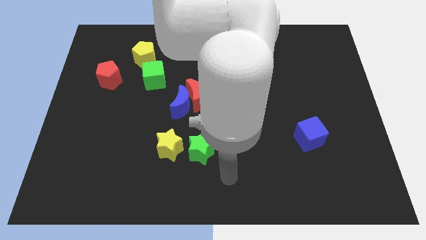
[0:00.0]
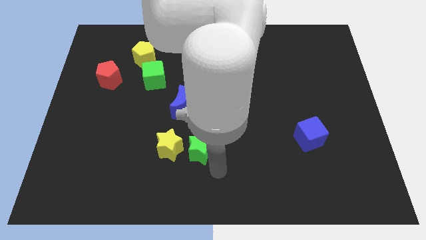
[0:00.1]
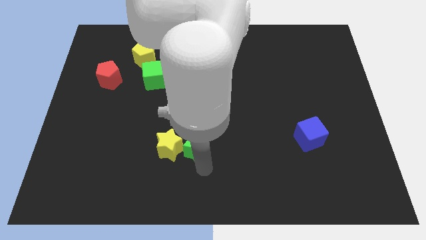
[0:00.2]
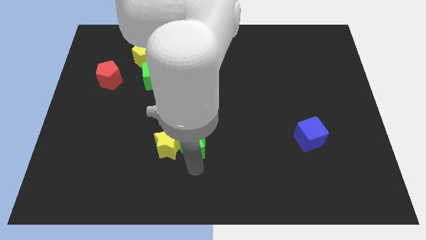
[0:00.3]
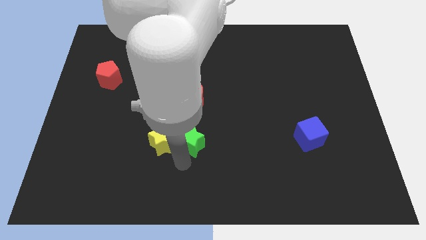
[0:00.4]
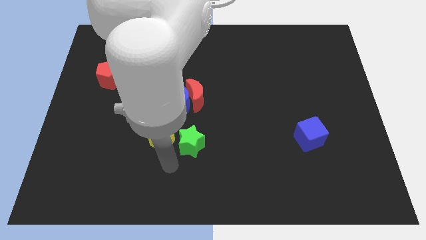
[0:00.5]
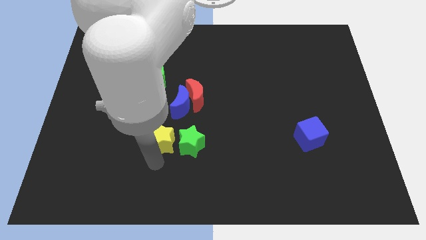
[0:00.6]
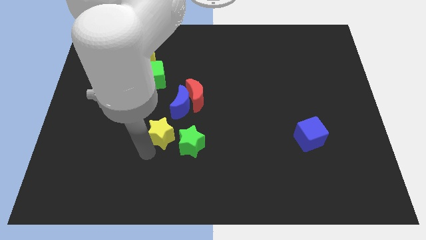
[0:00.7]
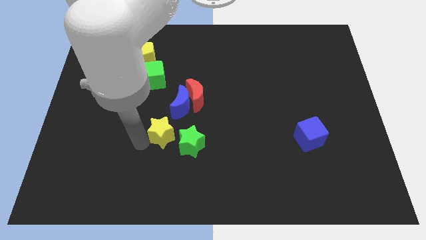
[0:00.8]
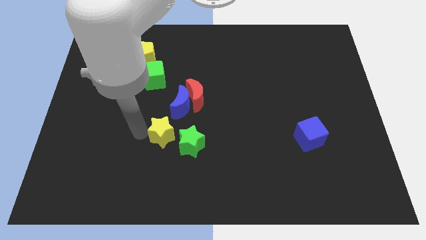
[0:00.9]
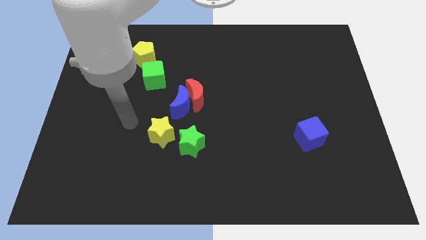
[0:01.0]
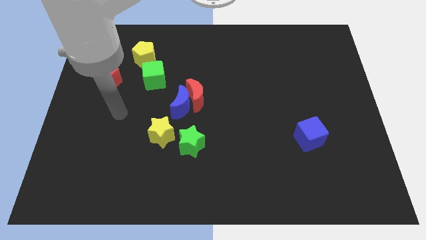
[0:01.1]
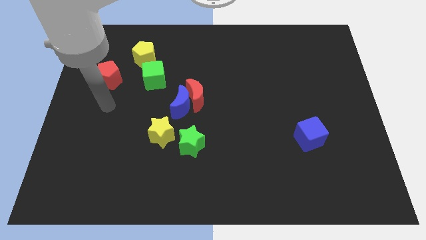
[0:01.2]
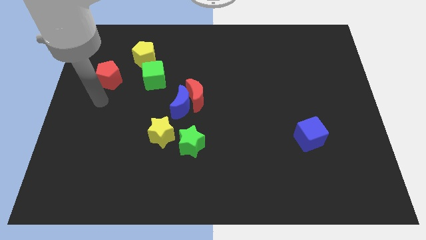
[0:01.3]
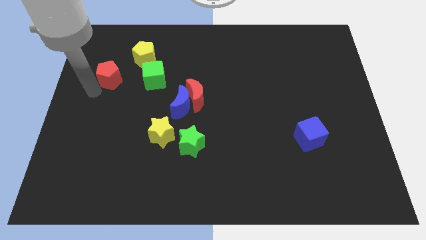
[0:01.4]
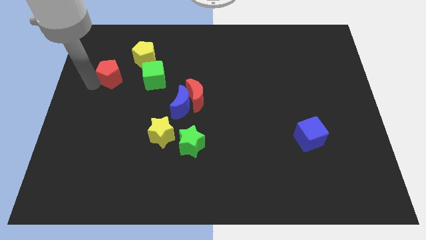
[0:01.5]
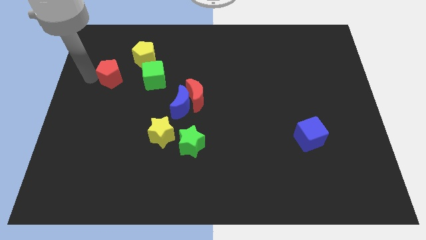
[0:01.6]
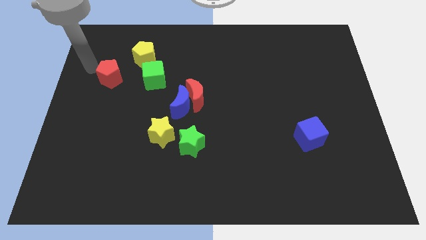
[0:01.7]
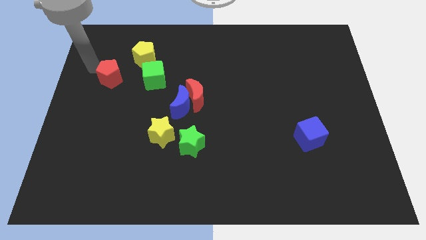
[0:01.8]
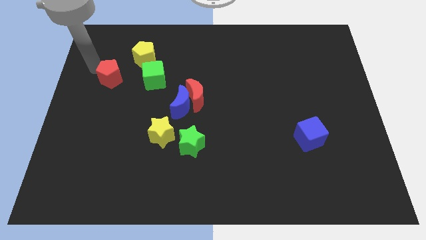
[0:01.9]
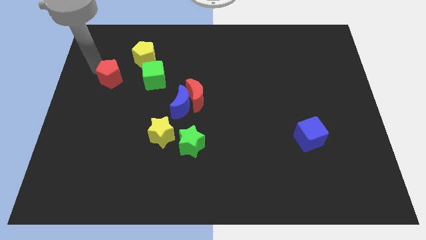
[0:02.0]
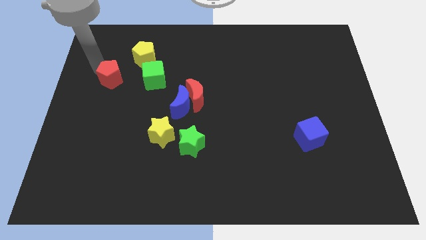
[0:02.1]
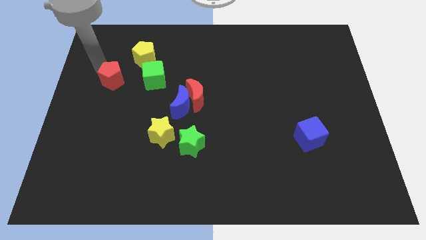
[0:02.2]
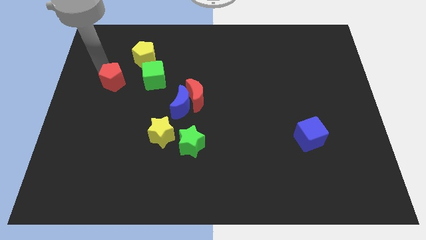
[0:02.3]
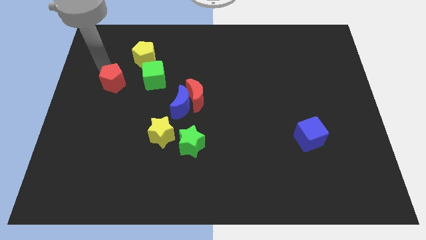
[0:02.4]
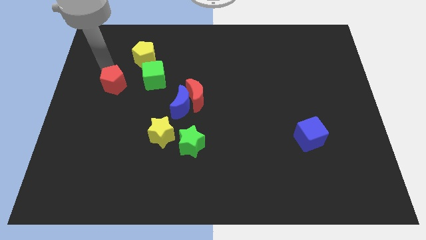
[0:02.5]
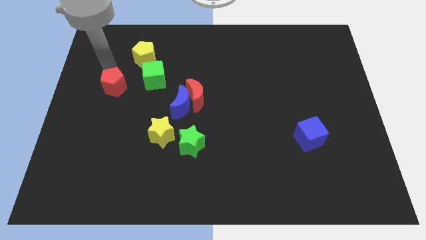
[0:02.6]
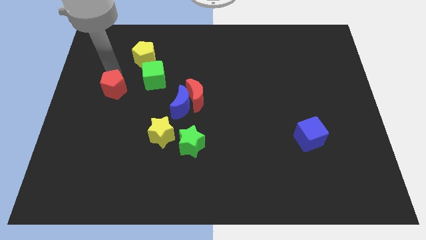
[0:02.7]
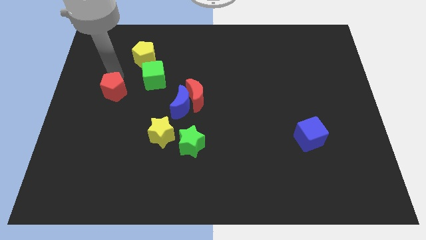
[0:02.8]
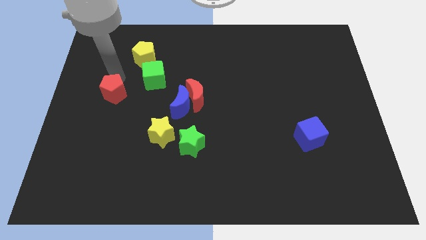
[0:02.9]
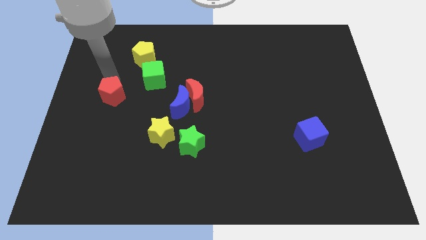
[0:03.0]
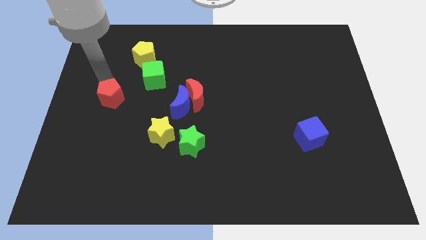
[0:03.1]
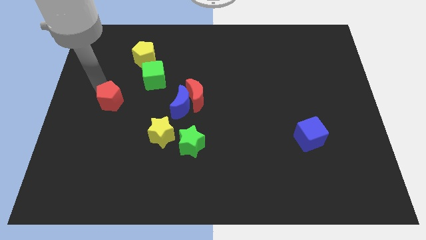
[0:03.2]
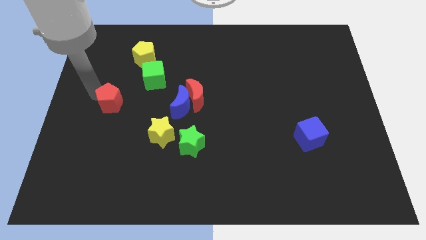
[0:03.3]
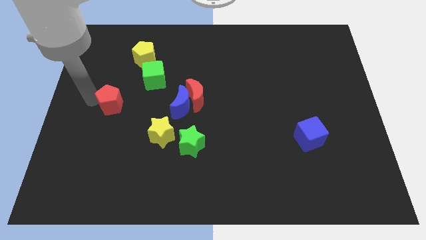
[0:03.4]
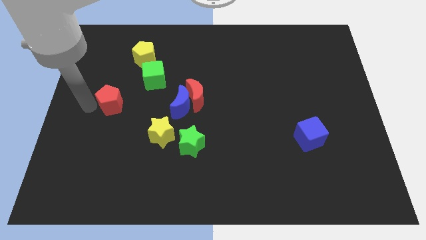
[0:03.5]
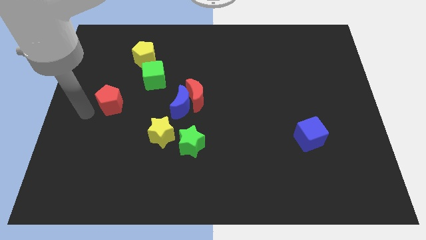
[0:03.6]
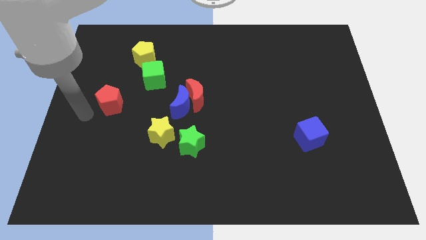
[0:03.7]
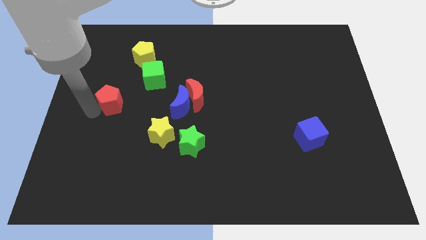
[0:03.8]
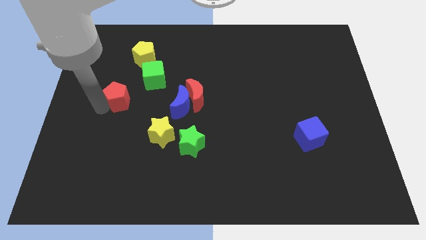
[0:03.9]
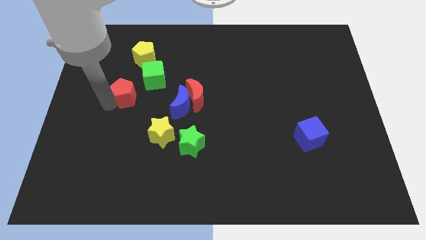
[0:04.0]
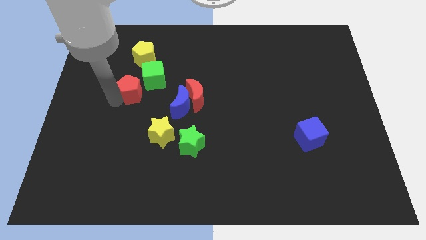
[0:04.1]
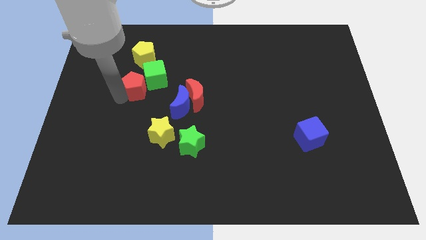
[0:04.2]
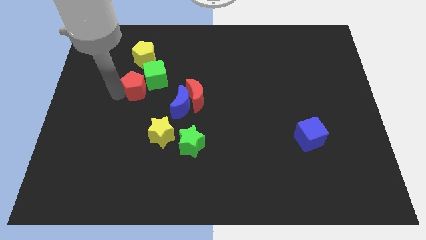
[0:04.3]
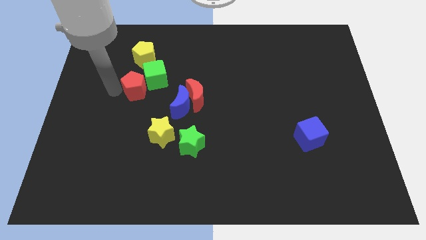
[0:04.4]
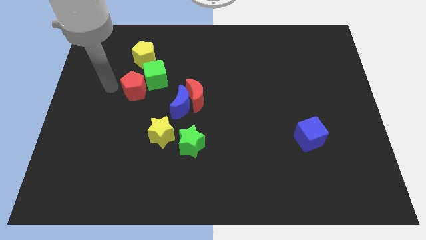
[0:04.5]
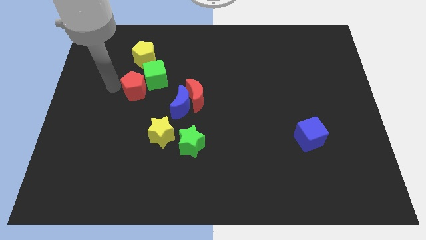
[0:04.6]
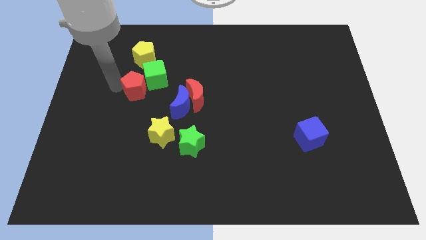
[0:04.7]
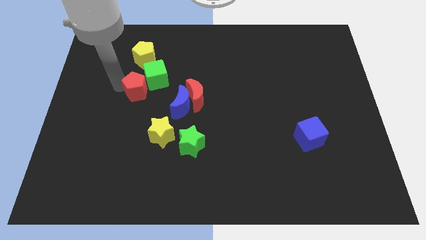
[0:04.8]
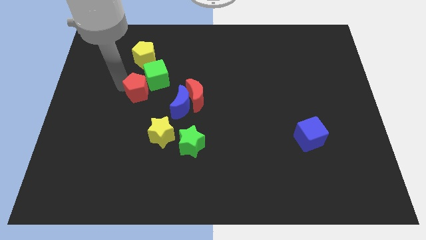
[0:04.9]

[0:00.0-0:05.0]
slightly push the red pentagon to the right

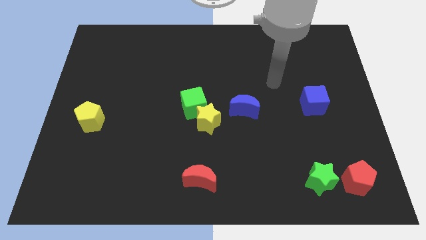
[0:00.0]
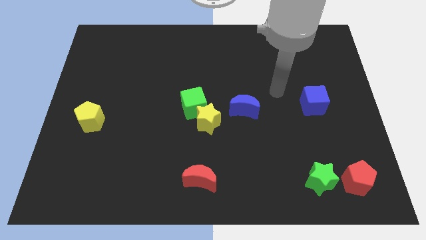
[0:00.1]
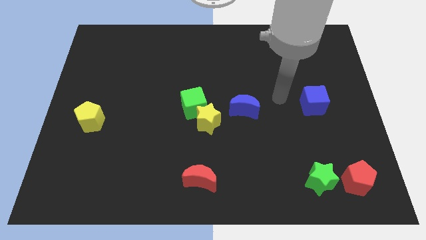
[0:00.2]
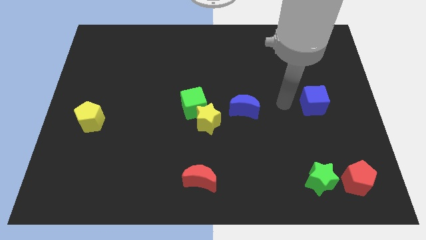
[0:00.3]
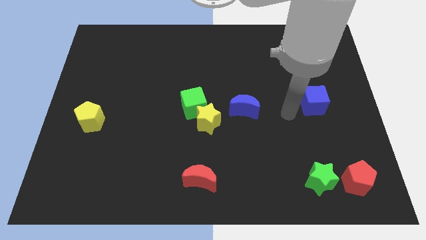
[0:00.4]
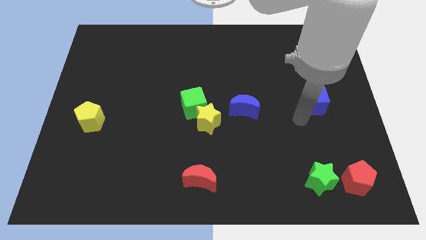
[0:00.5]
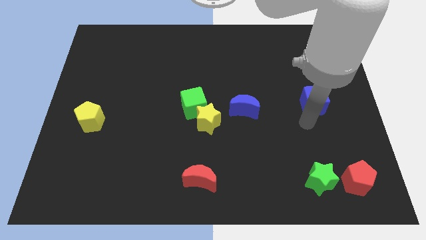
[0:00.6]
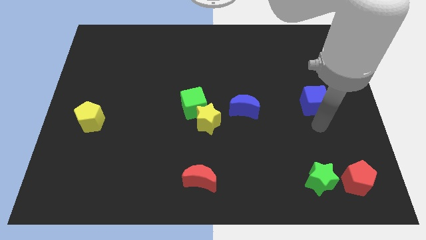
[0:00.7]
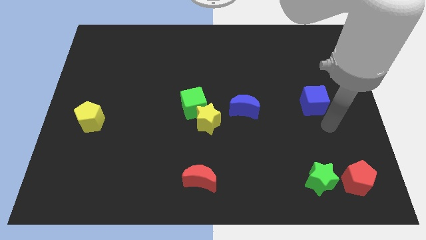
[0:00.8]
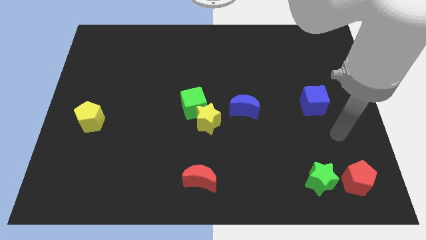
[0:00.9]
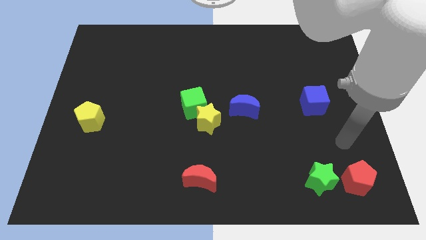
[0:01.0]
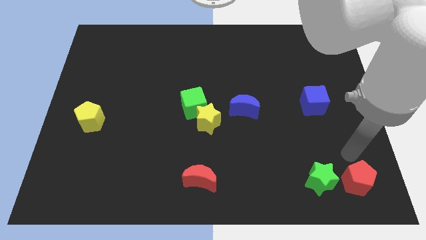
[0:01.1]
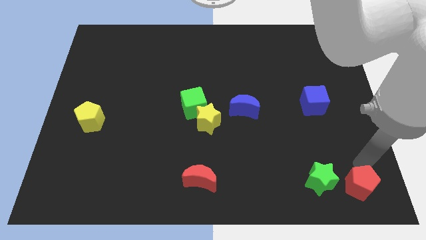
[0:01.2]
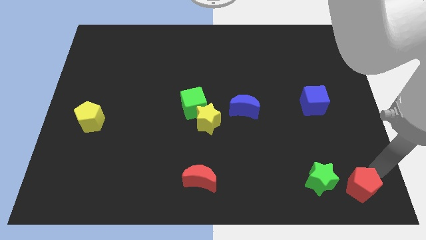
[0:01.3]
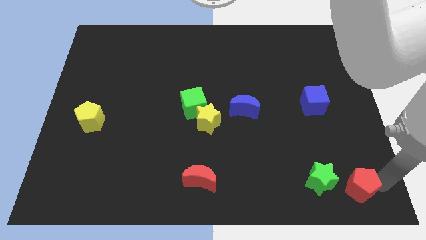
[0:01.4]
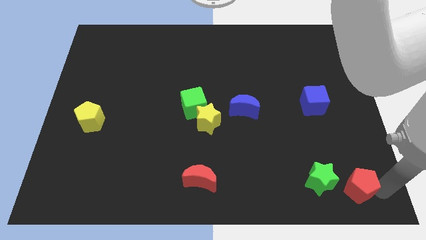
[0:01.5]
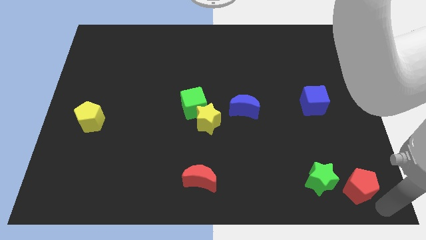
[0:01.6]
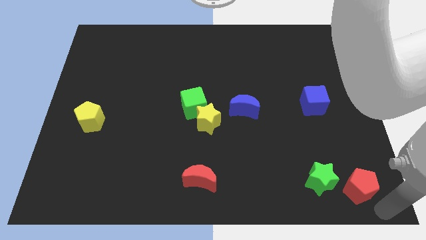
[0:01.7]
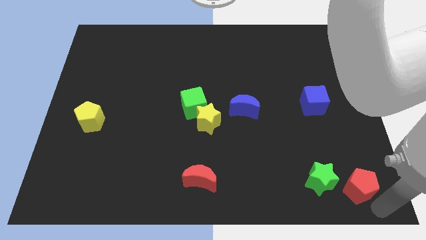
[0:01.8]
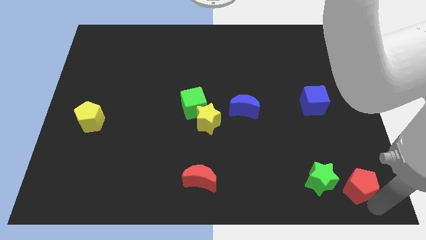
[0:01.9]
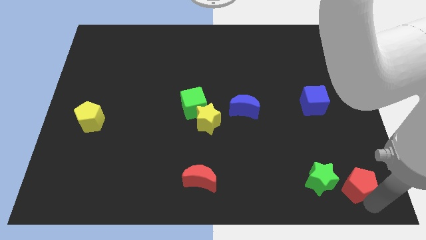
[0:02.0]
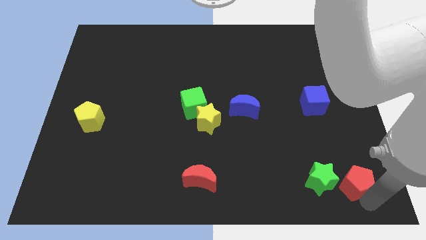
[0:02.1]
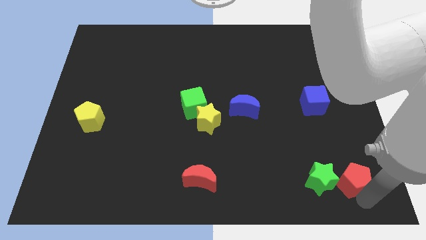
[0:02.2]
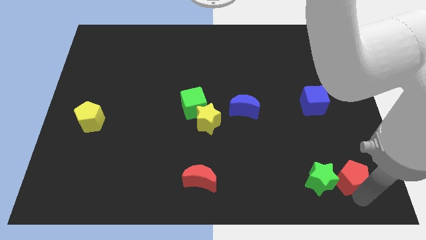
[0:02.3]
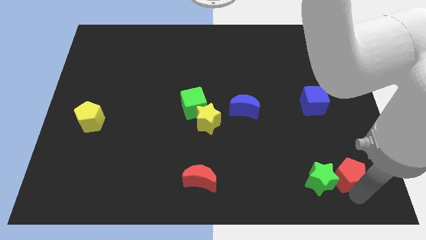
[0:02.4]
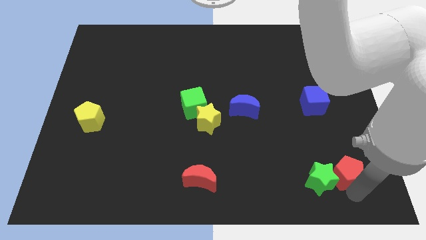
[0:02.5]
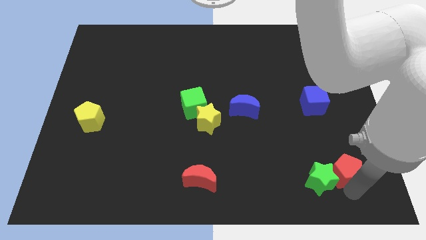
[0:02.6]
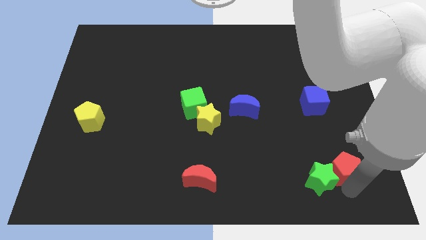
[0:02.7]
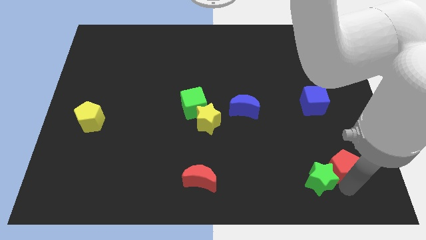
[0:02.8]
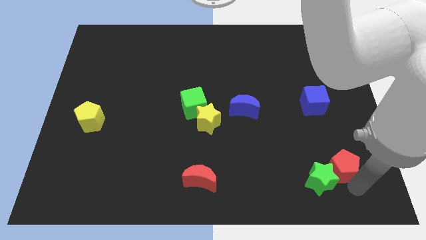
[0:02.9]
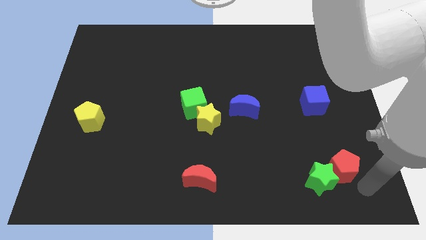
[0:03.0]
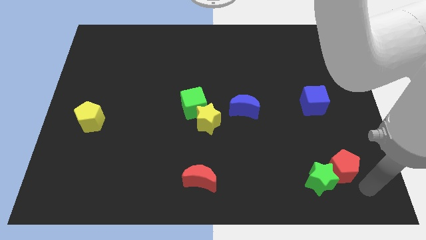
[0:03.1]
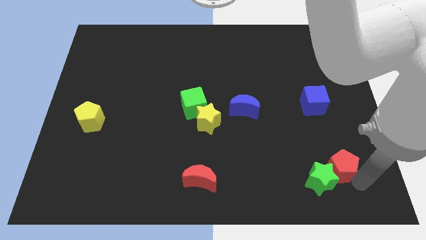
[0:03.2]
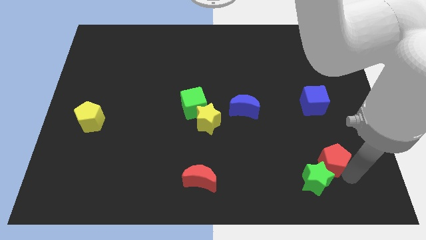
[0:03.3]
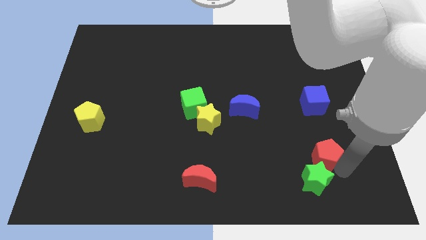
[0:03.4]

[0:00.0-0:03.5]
push the red pentagon somewhat upwards and to the left diagonally
